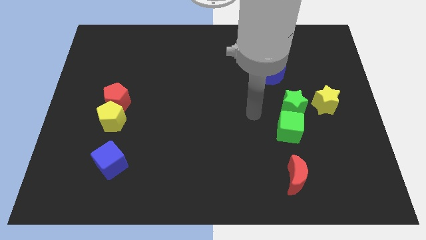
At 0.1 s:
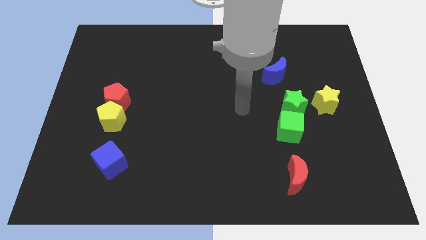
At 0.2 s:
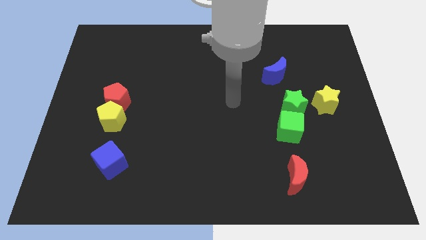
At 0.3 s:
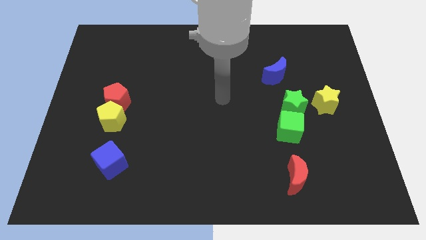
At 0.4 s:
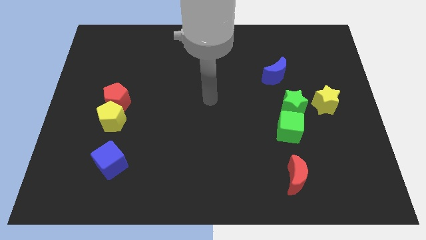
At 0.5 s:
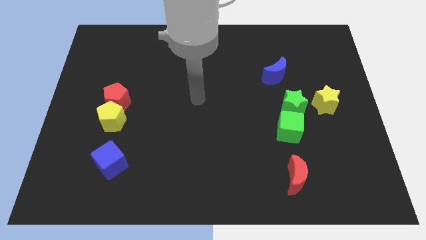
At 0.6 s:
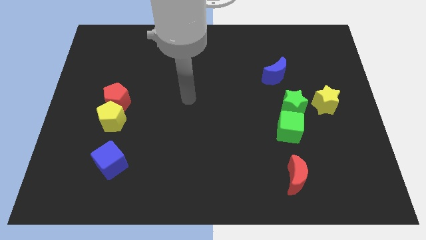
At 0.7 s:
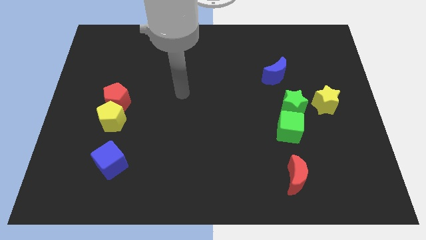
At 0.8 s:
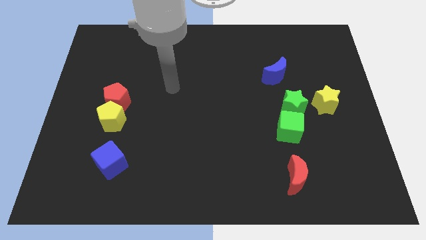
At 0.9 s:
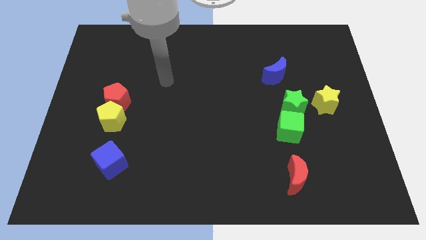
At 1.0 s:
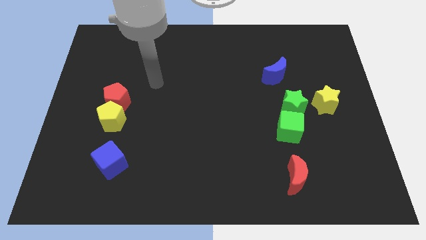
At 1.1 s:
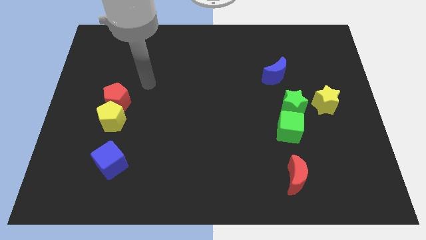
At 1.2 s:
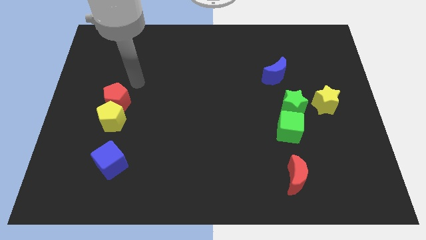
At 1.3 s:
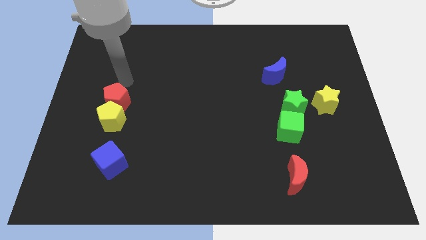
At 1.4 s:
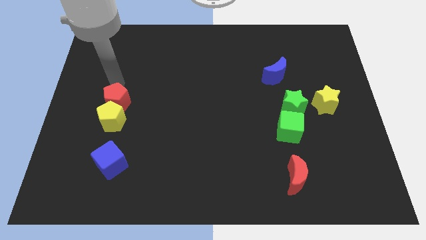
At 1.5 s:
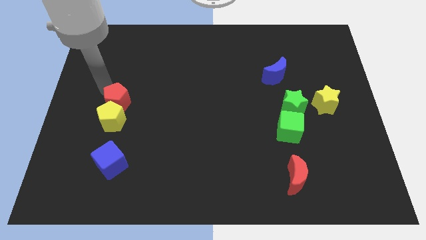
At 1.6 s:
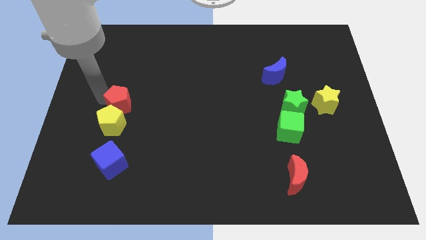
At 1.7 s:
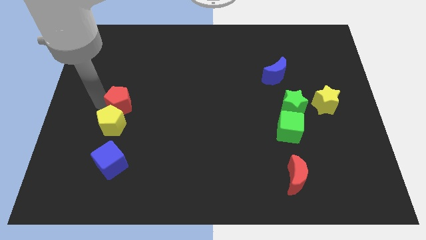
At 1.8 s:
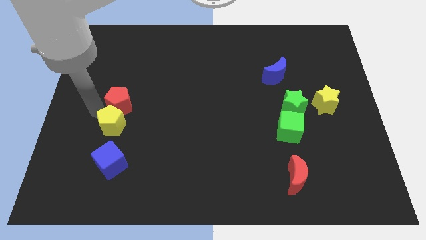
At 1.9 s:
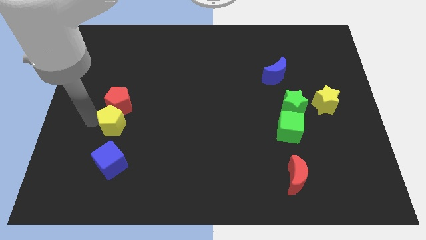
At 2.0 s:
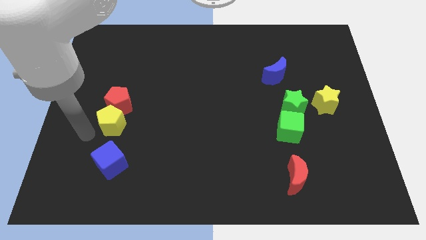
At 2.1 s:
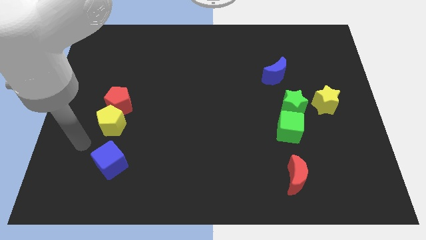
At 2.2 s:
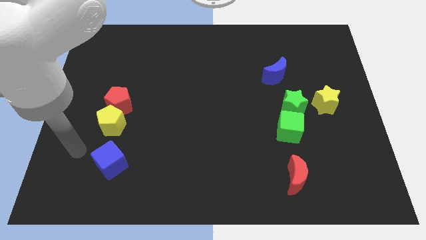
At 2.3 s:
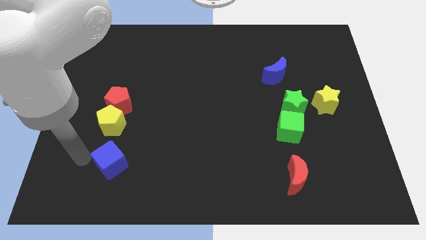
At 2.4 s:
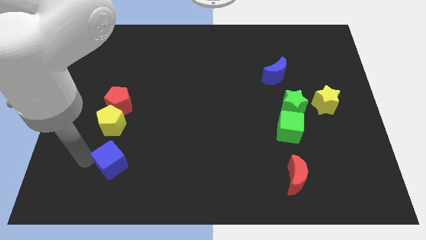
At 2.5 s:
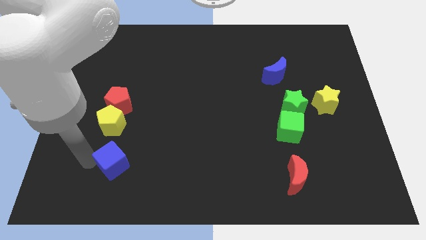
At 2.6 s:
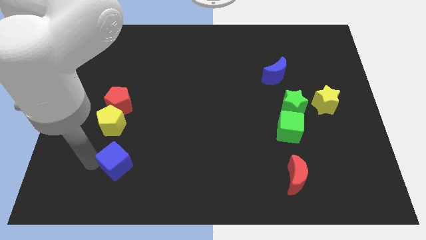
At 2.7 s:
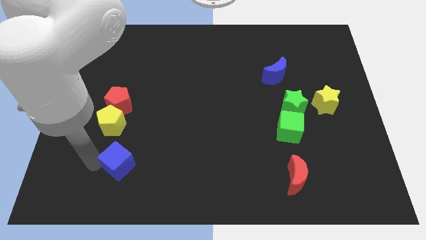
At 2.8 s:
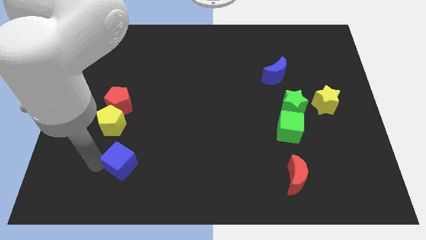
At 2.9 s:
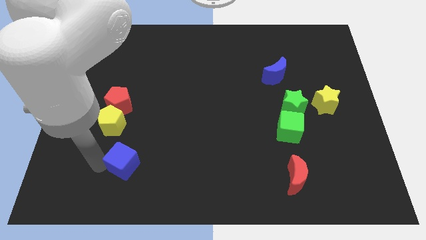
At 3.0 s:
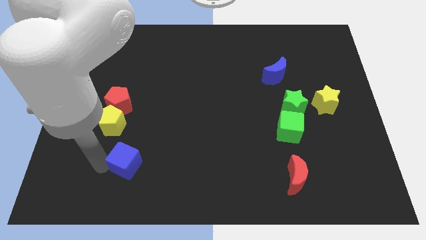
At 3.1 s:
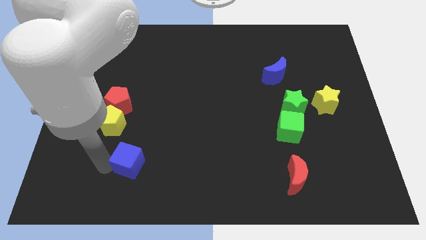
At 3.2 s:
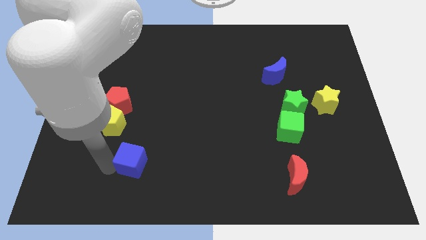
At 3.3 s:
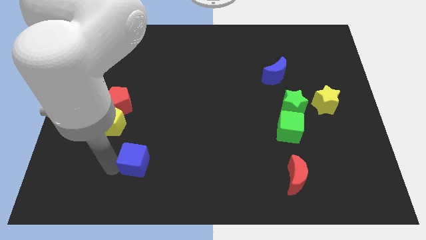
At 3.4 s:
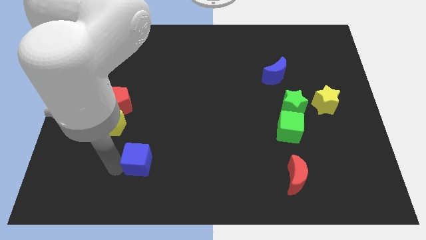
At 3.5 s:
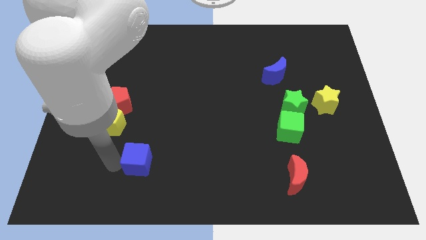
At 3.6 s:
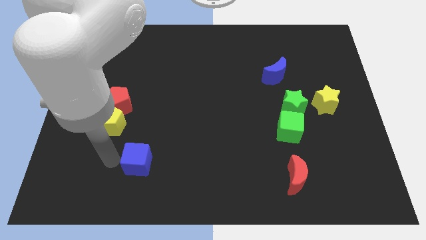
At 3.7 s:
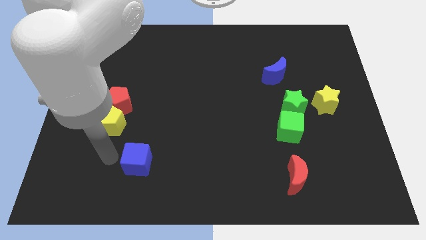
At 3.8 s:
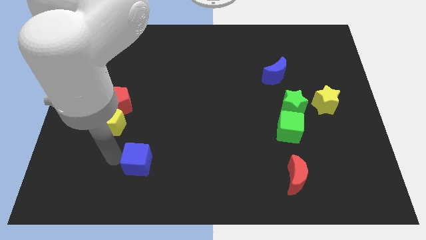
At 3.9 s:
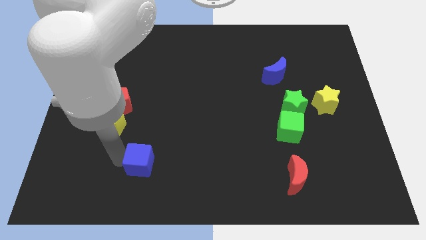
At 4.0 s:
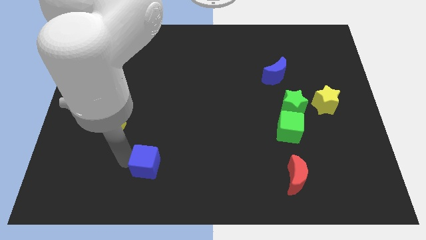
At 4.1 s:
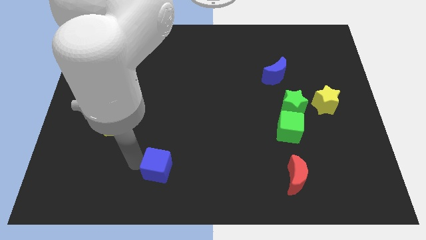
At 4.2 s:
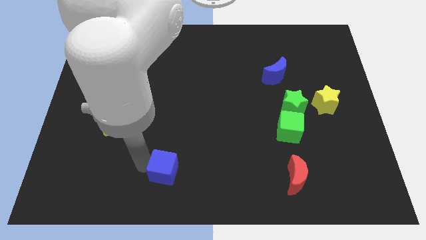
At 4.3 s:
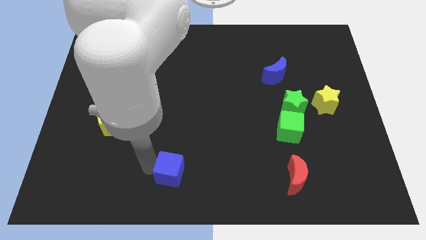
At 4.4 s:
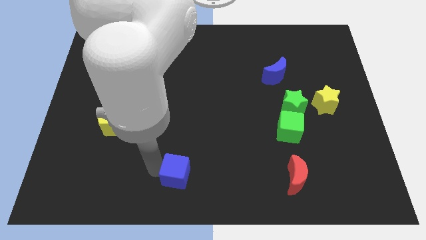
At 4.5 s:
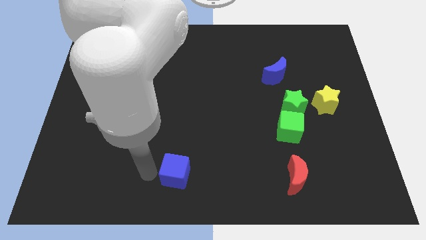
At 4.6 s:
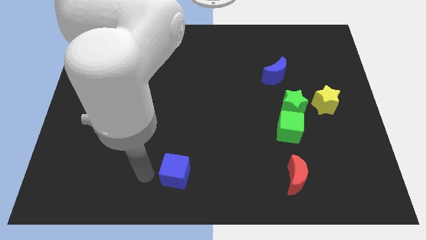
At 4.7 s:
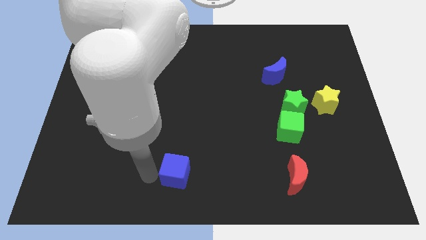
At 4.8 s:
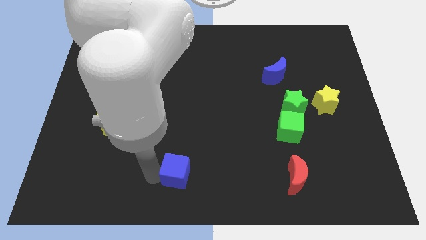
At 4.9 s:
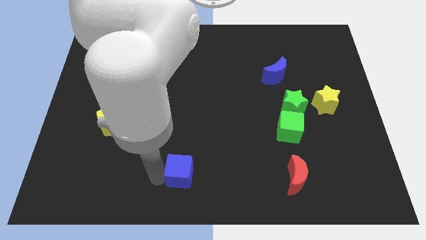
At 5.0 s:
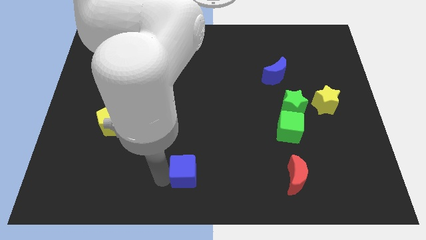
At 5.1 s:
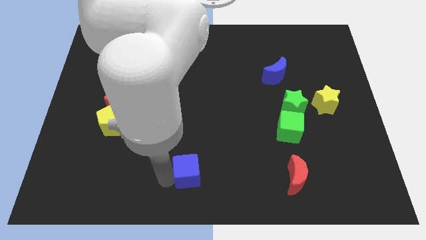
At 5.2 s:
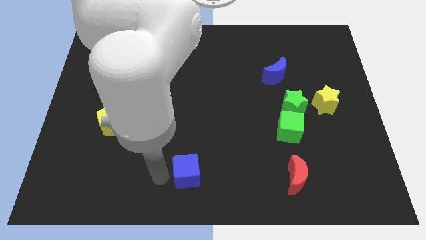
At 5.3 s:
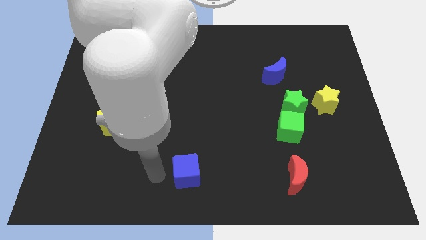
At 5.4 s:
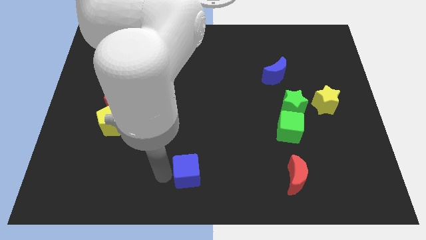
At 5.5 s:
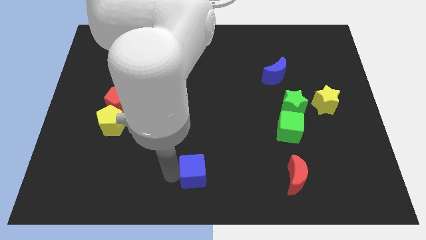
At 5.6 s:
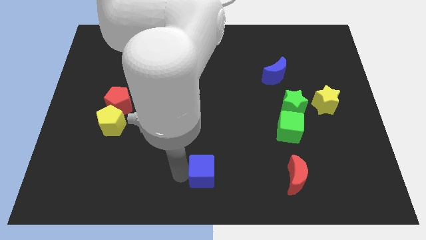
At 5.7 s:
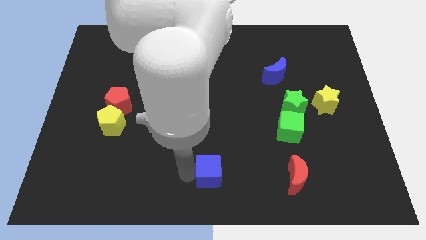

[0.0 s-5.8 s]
push the blue cube right

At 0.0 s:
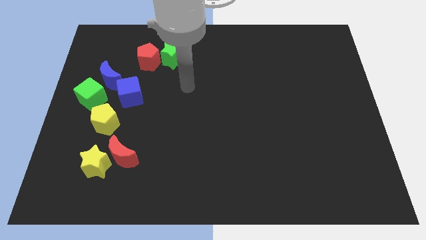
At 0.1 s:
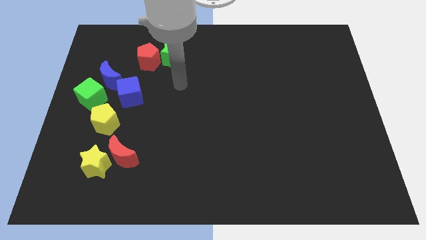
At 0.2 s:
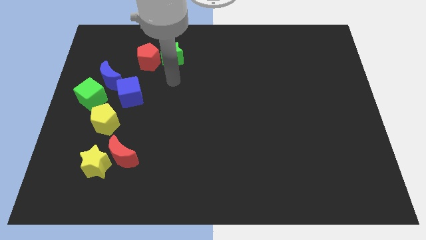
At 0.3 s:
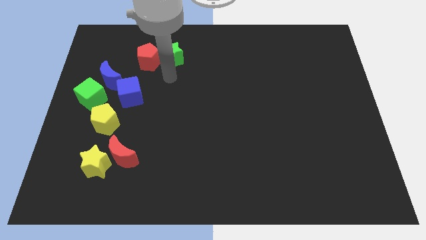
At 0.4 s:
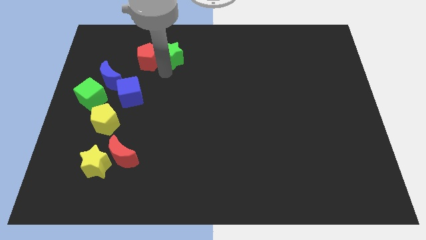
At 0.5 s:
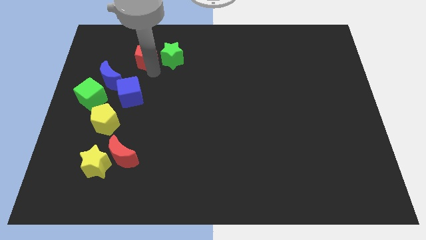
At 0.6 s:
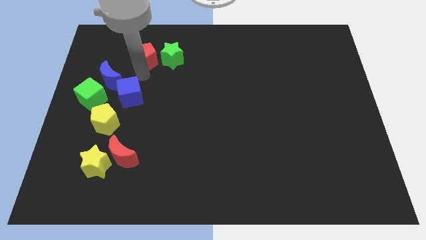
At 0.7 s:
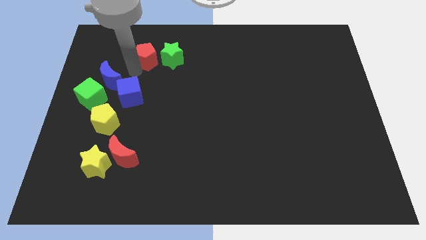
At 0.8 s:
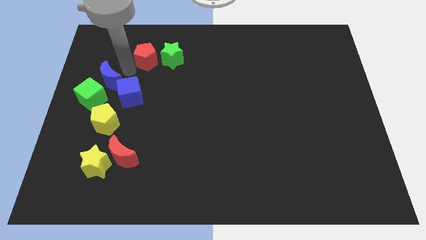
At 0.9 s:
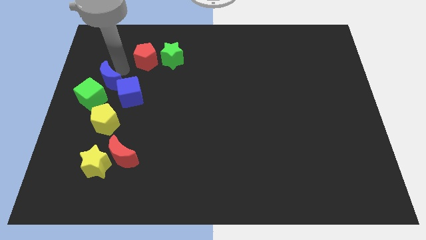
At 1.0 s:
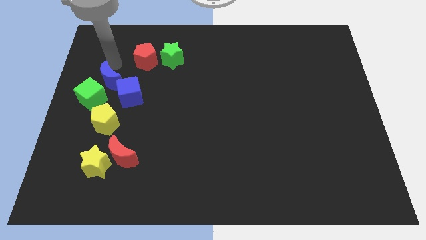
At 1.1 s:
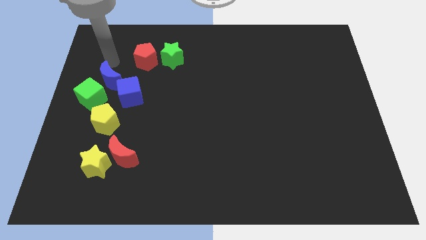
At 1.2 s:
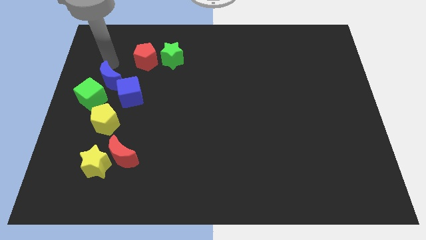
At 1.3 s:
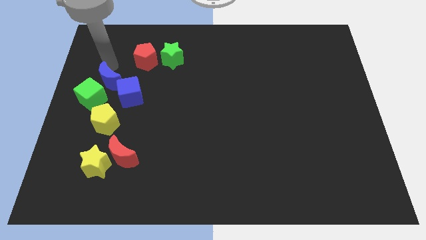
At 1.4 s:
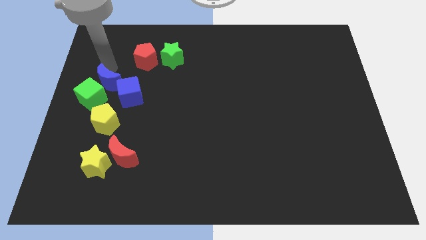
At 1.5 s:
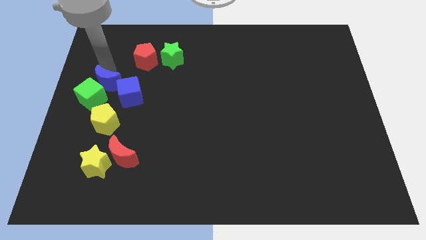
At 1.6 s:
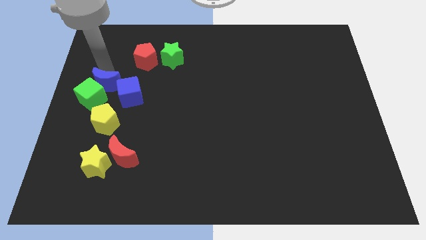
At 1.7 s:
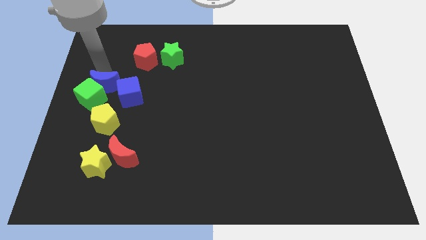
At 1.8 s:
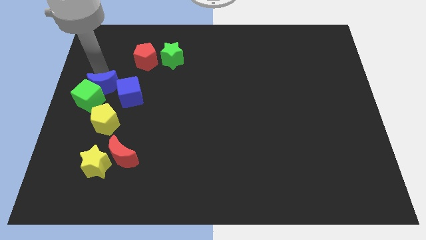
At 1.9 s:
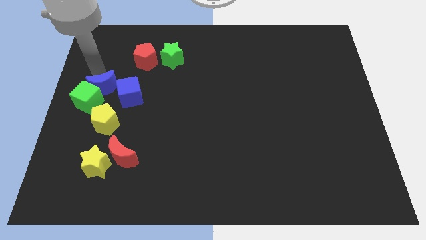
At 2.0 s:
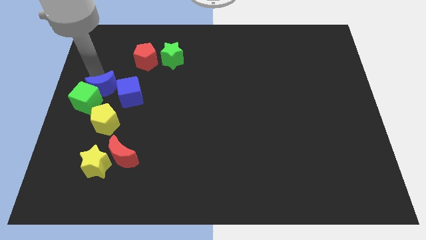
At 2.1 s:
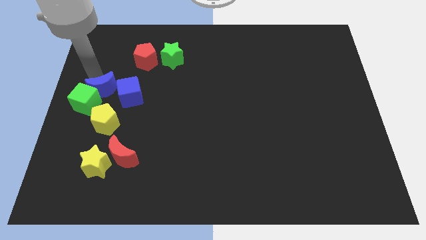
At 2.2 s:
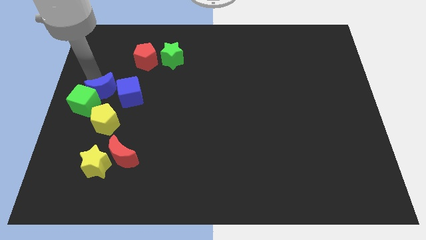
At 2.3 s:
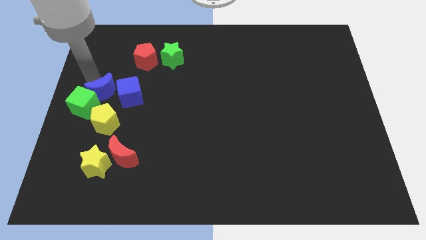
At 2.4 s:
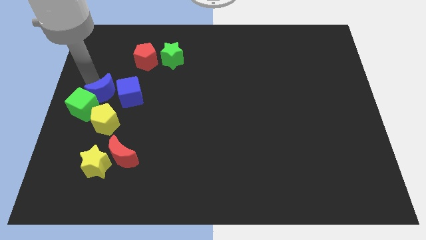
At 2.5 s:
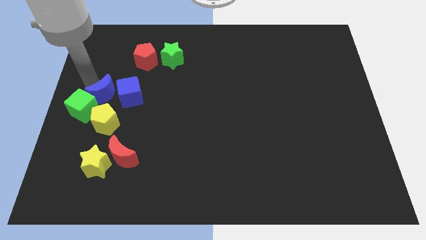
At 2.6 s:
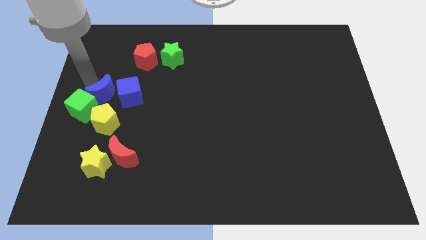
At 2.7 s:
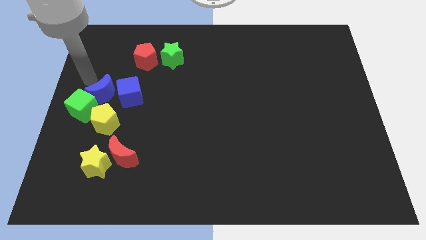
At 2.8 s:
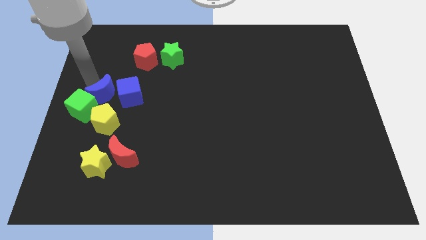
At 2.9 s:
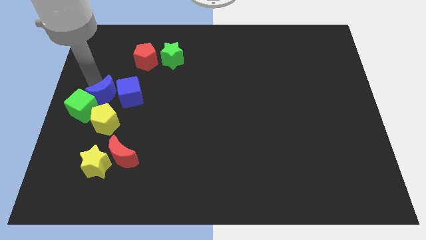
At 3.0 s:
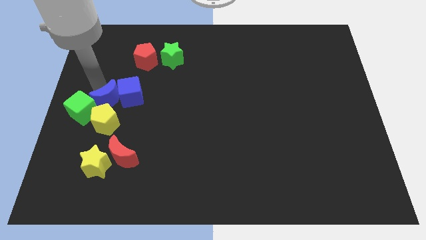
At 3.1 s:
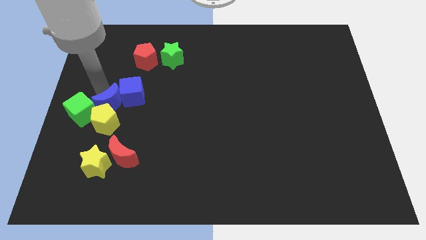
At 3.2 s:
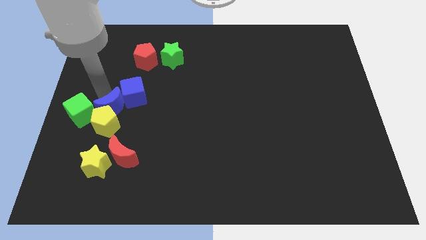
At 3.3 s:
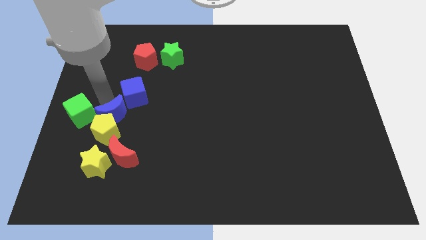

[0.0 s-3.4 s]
push the blue moon down and to the right a little
